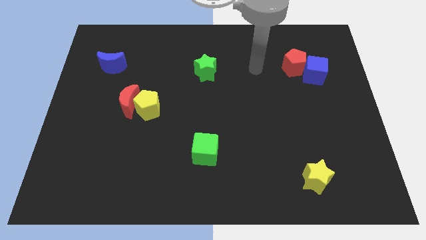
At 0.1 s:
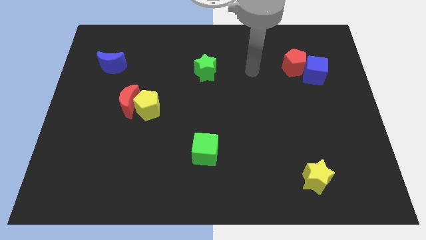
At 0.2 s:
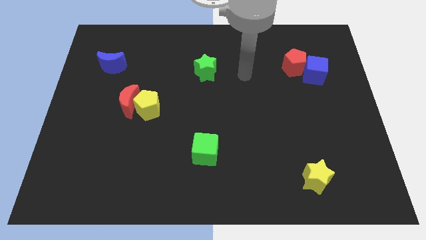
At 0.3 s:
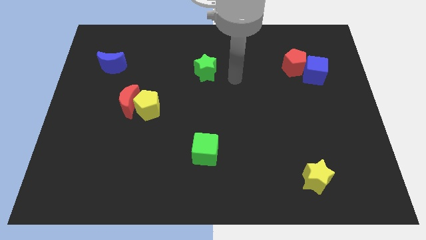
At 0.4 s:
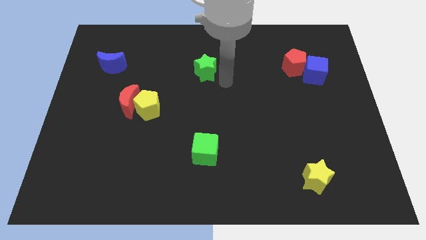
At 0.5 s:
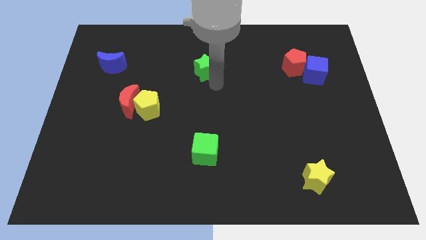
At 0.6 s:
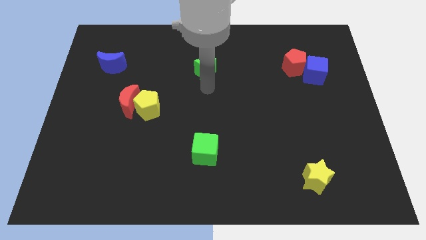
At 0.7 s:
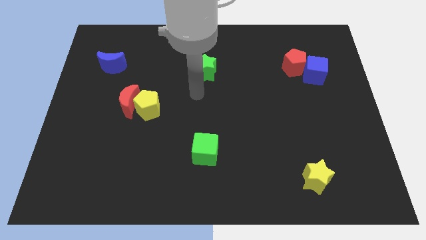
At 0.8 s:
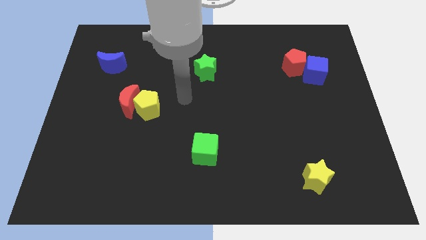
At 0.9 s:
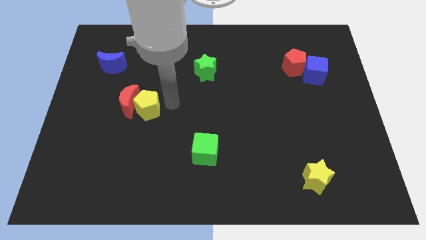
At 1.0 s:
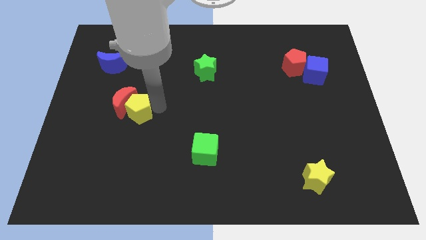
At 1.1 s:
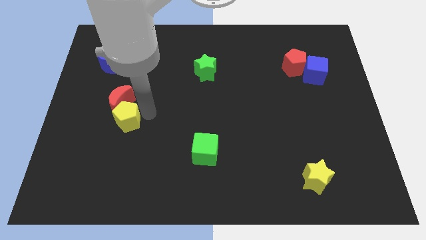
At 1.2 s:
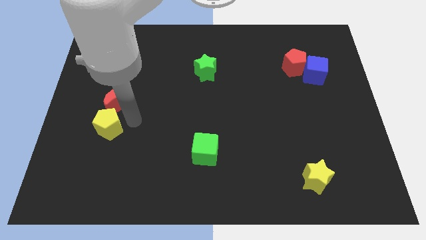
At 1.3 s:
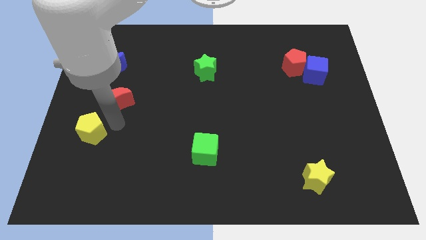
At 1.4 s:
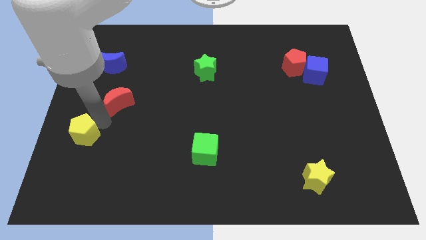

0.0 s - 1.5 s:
move the red moon away from the yellow pentagon

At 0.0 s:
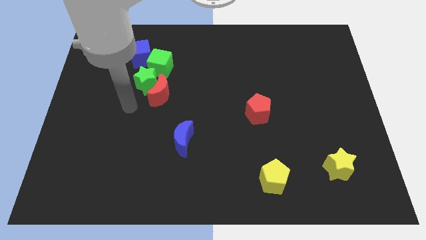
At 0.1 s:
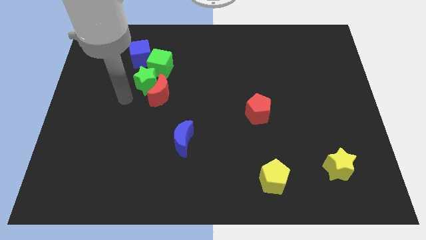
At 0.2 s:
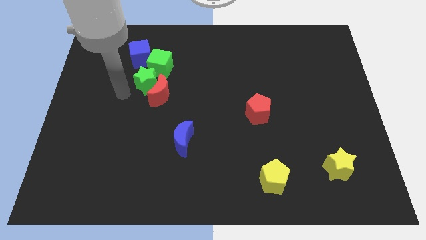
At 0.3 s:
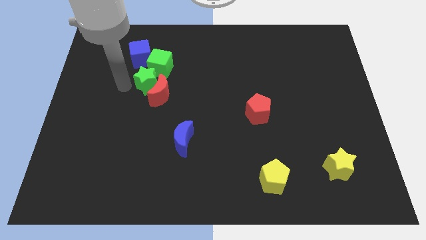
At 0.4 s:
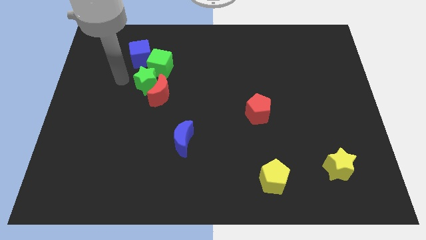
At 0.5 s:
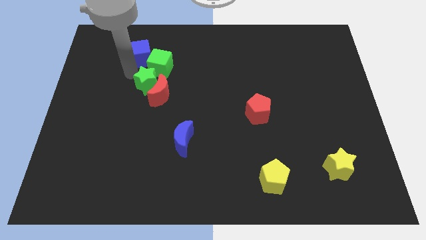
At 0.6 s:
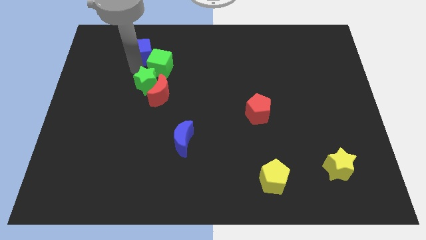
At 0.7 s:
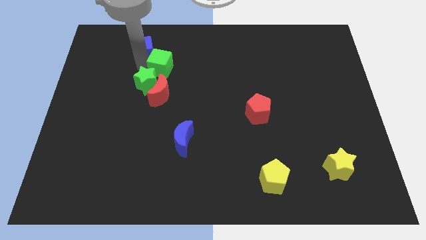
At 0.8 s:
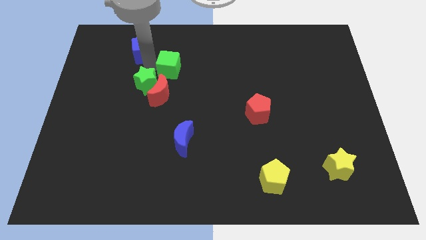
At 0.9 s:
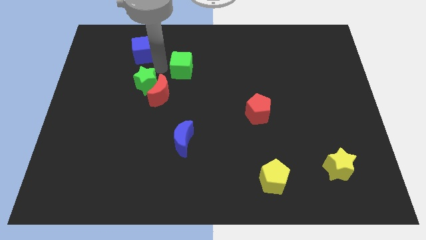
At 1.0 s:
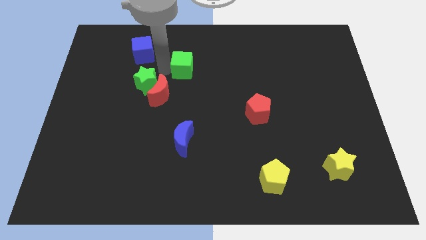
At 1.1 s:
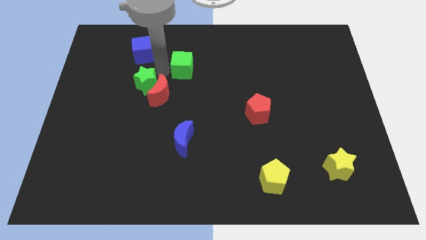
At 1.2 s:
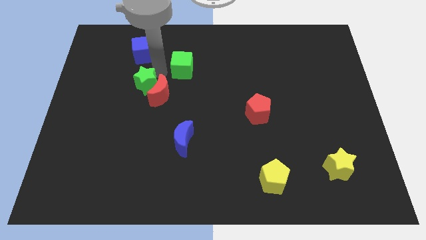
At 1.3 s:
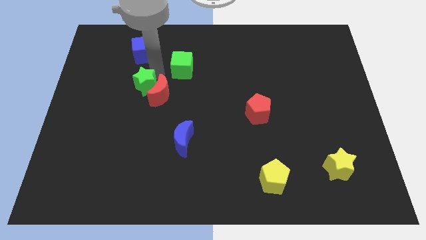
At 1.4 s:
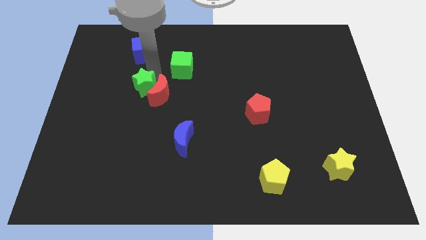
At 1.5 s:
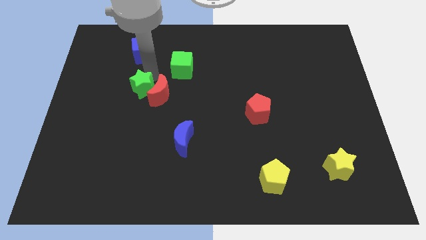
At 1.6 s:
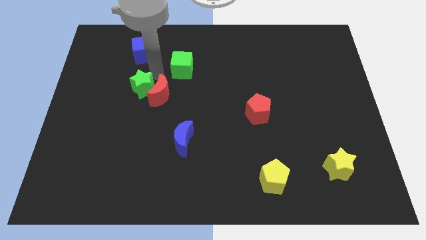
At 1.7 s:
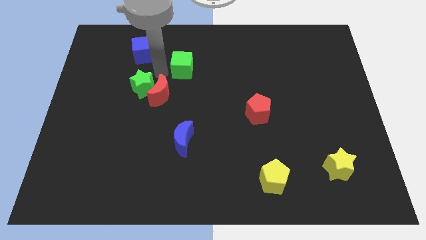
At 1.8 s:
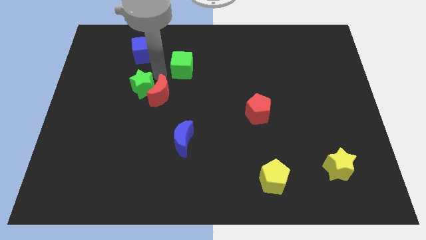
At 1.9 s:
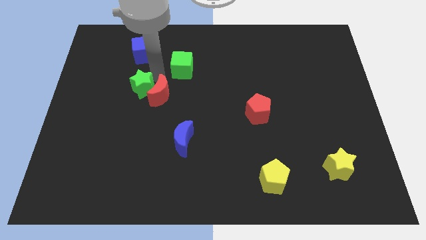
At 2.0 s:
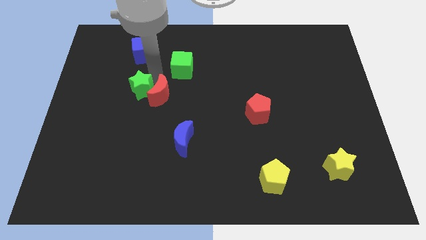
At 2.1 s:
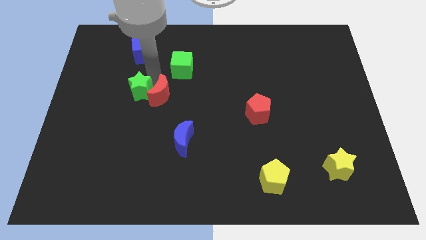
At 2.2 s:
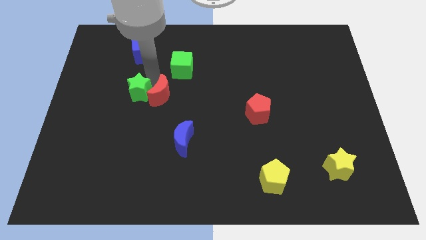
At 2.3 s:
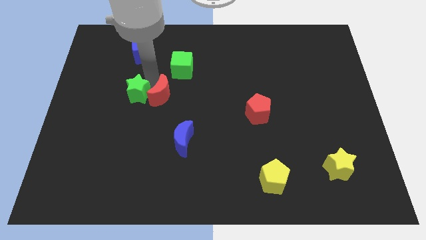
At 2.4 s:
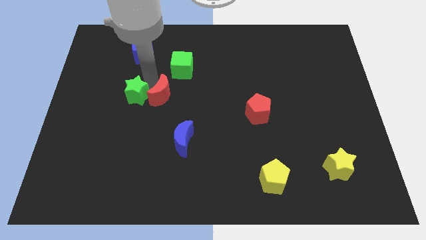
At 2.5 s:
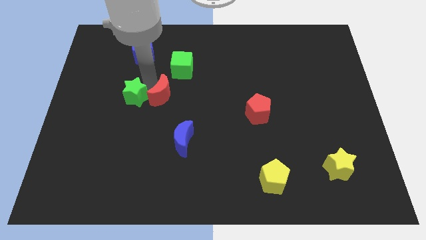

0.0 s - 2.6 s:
separate the green star from the red moon, green cube, and blue cube

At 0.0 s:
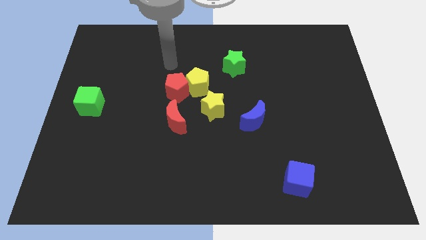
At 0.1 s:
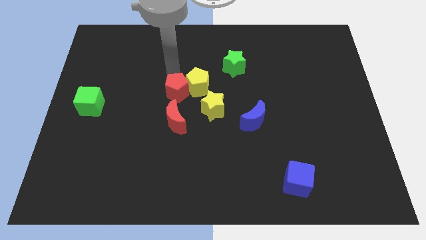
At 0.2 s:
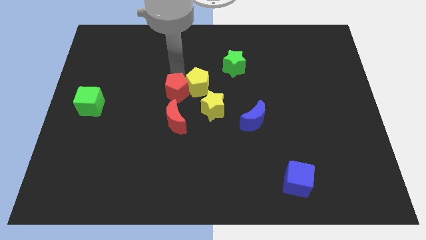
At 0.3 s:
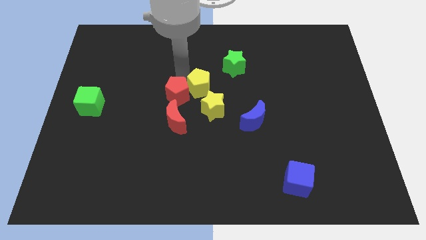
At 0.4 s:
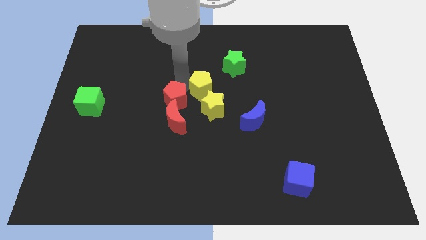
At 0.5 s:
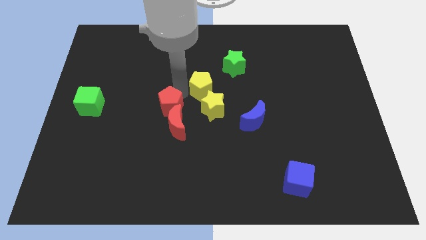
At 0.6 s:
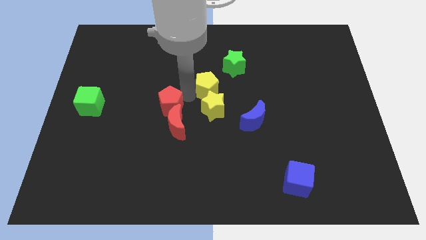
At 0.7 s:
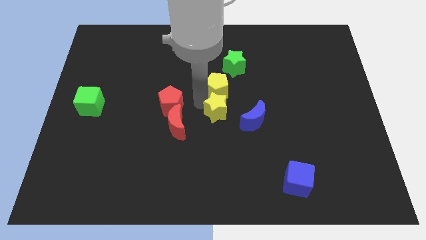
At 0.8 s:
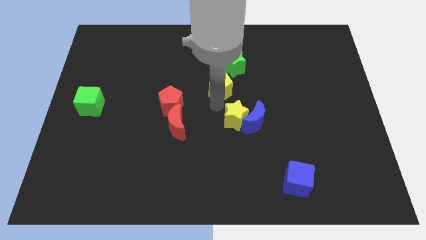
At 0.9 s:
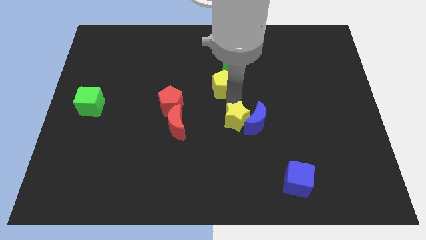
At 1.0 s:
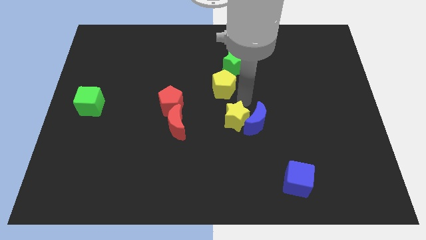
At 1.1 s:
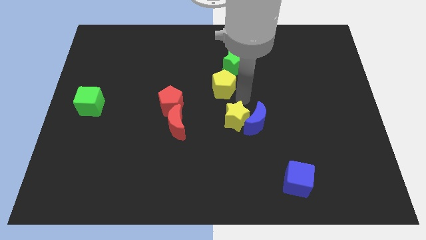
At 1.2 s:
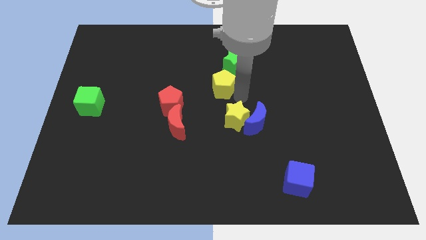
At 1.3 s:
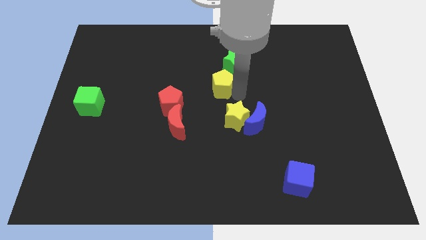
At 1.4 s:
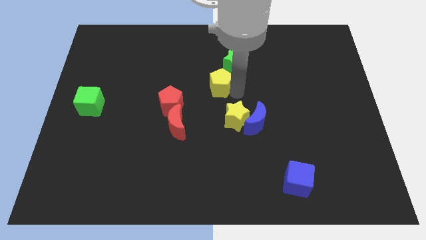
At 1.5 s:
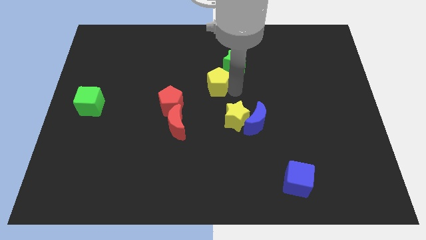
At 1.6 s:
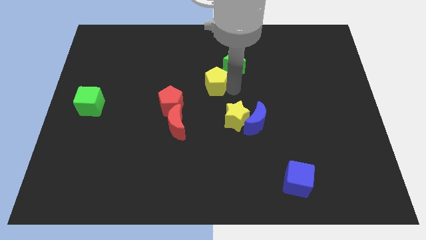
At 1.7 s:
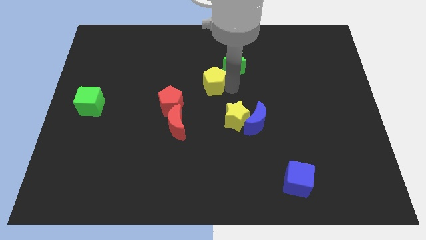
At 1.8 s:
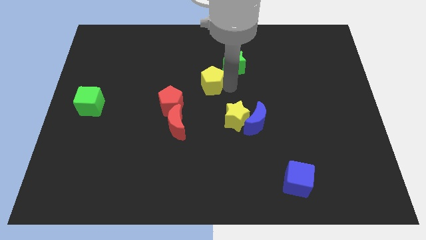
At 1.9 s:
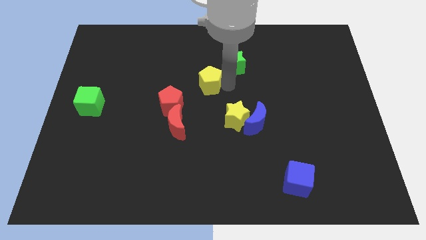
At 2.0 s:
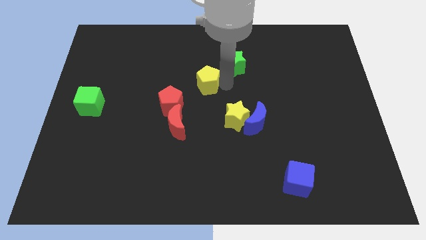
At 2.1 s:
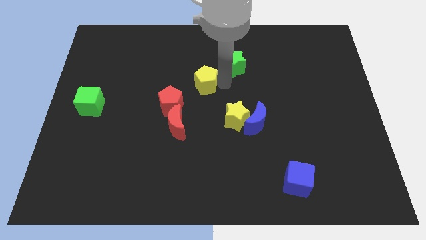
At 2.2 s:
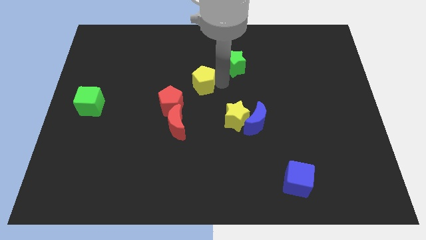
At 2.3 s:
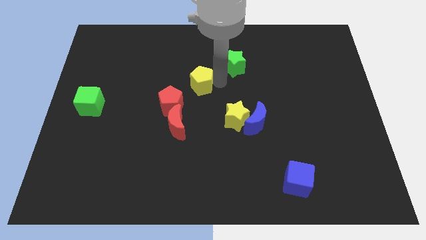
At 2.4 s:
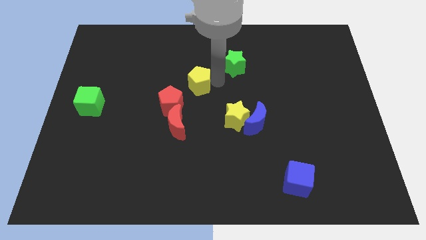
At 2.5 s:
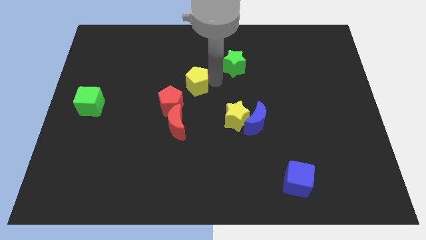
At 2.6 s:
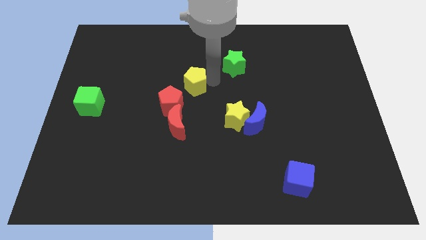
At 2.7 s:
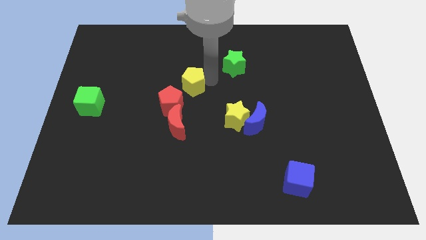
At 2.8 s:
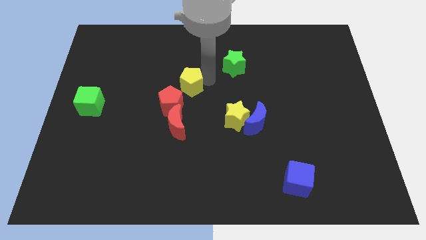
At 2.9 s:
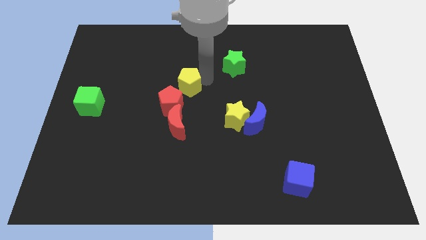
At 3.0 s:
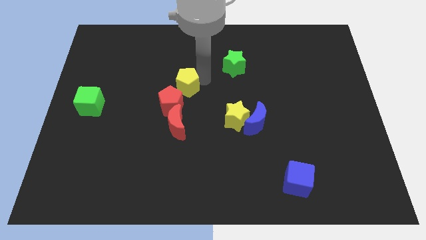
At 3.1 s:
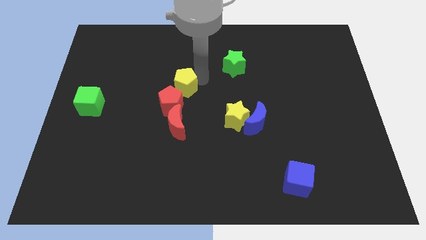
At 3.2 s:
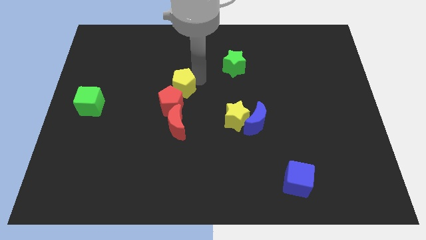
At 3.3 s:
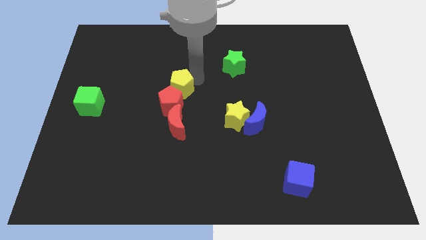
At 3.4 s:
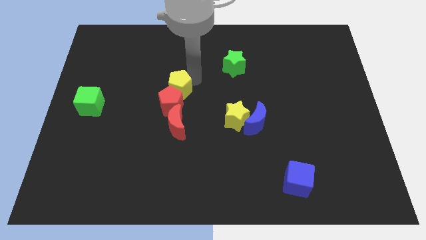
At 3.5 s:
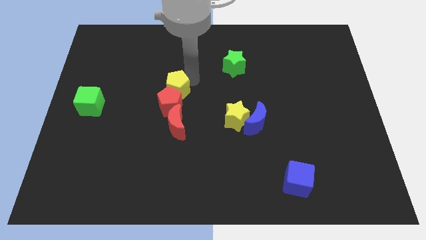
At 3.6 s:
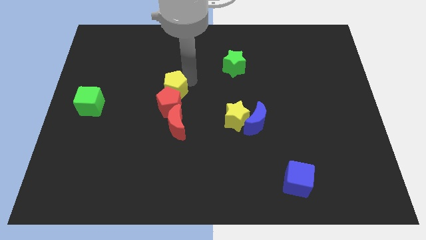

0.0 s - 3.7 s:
move the yellow pentagon away from the red pentagon and yellow star

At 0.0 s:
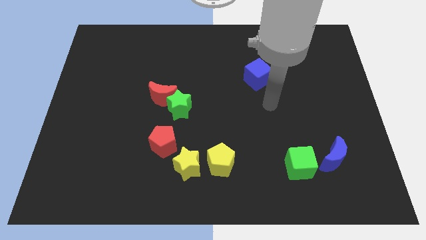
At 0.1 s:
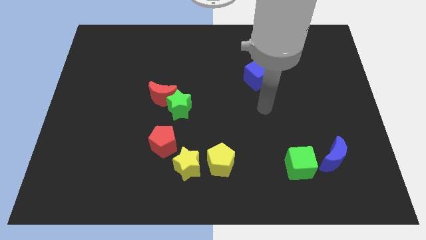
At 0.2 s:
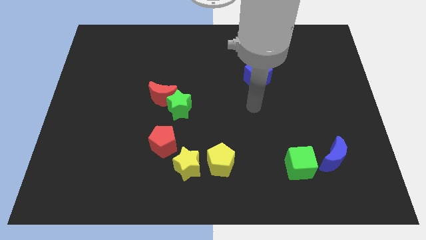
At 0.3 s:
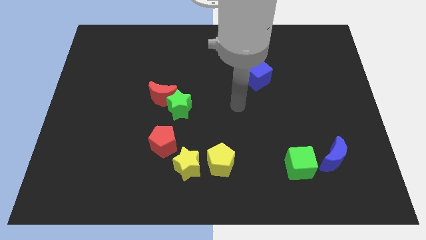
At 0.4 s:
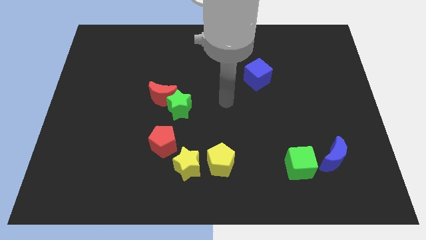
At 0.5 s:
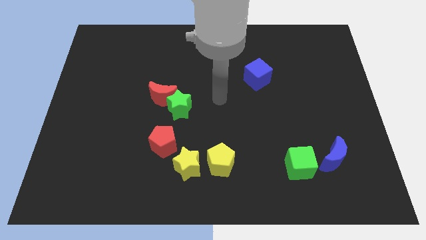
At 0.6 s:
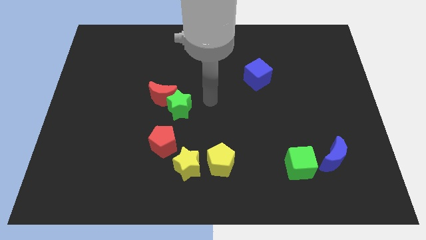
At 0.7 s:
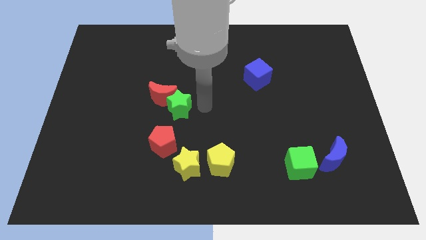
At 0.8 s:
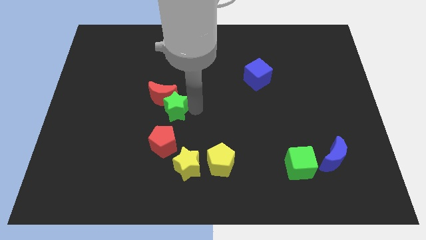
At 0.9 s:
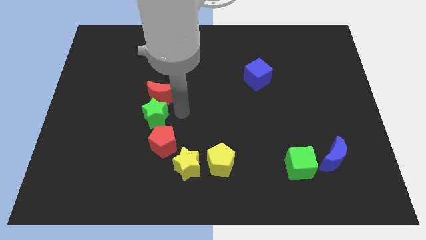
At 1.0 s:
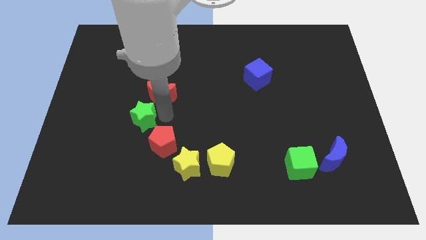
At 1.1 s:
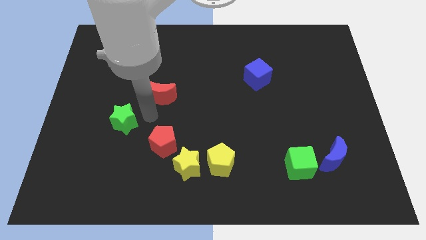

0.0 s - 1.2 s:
move the red moon away from the green star

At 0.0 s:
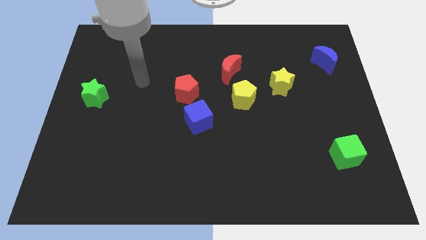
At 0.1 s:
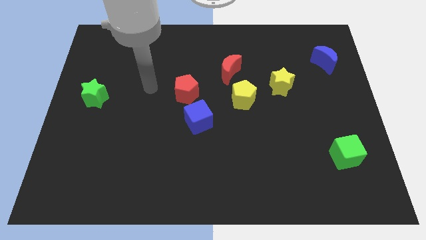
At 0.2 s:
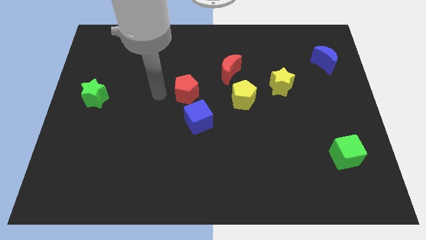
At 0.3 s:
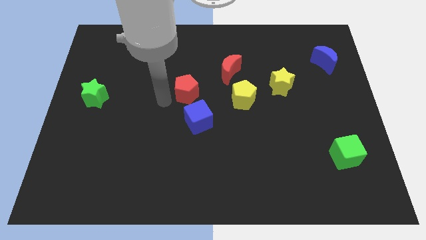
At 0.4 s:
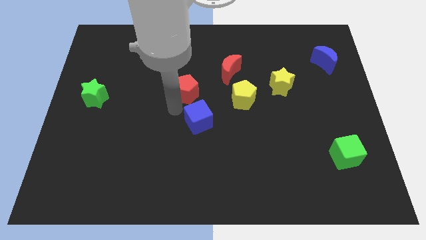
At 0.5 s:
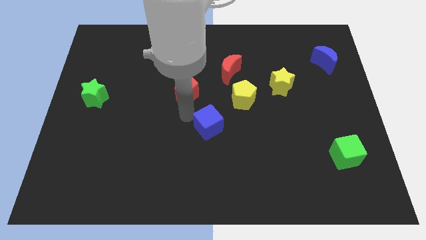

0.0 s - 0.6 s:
pull the red pentagon apart from the blue cube
